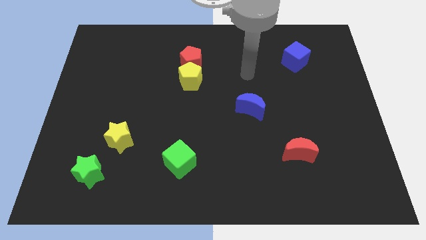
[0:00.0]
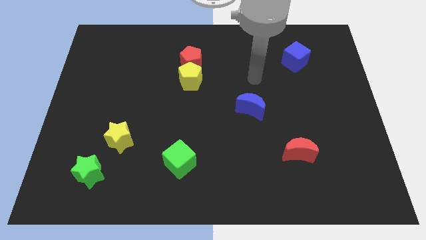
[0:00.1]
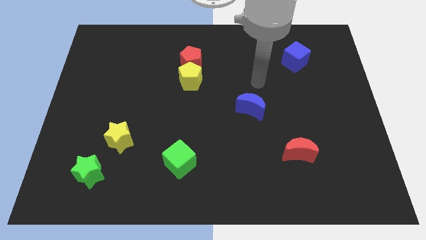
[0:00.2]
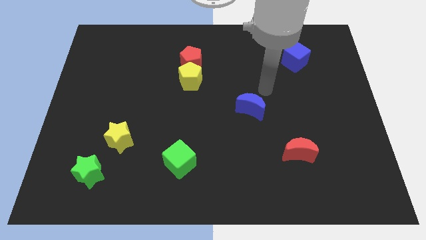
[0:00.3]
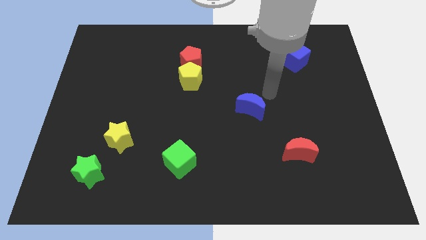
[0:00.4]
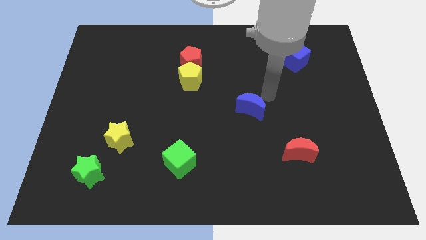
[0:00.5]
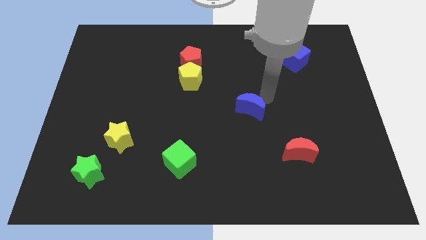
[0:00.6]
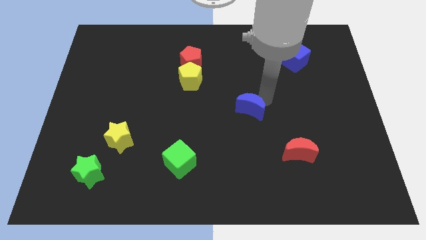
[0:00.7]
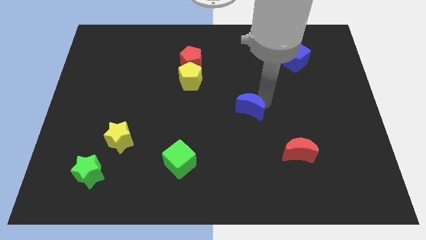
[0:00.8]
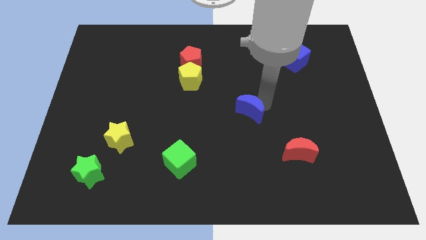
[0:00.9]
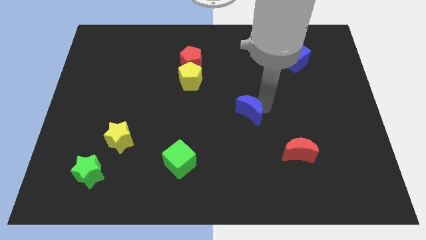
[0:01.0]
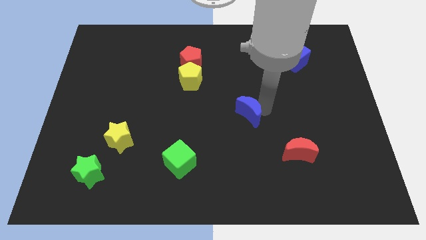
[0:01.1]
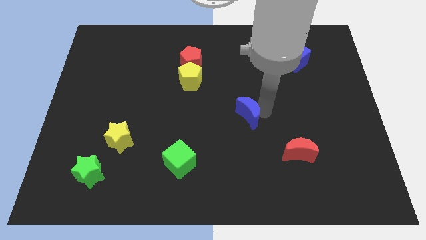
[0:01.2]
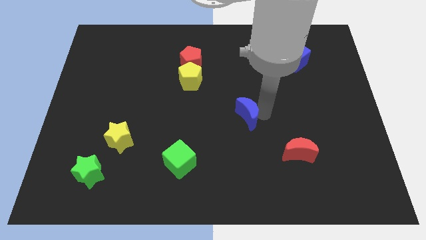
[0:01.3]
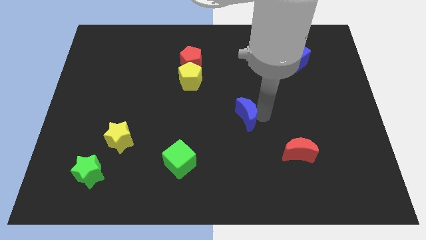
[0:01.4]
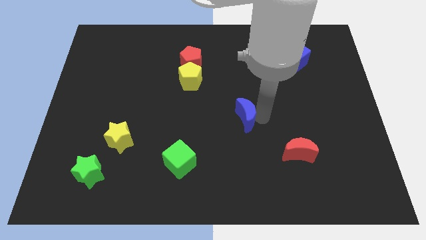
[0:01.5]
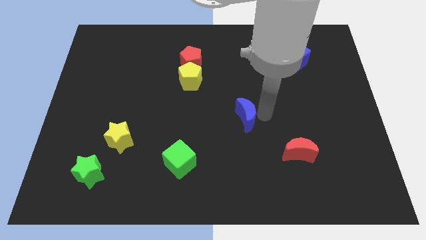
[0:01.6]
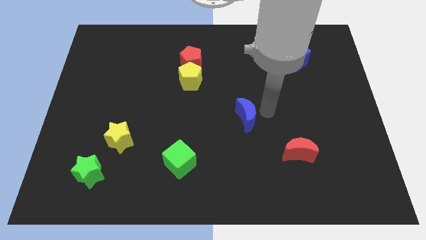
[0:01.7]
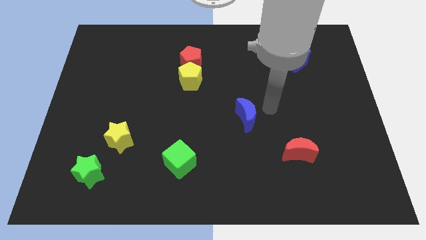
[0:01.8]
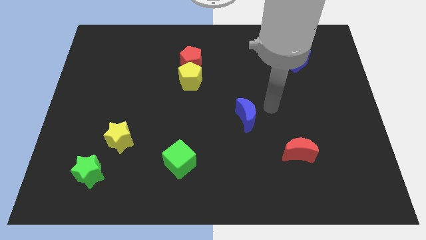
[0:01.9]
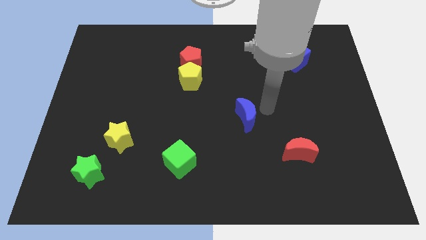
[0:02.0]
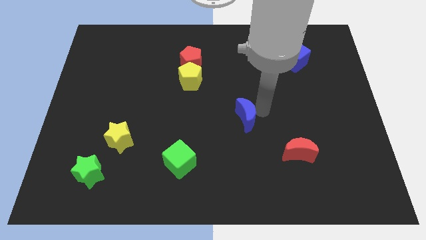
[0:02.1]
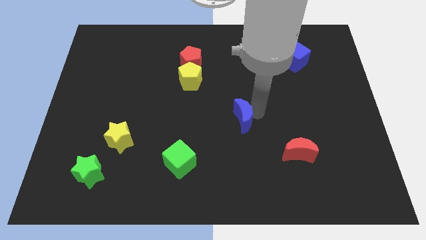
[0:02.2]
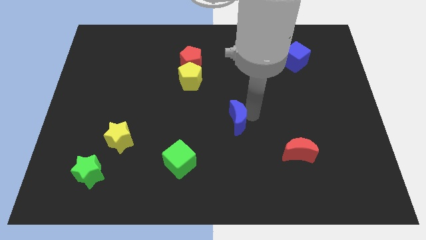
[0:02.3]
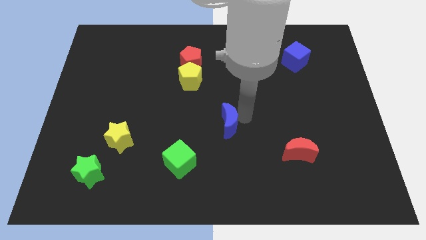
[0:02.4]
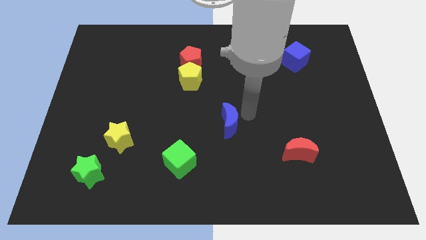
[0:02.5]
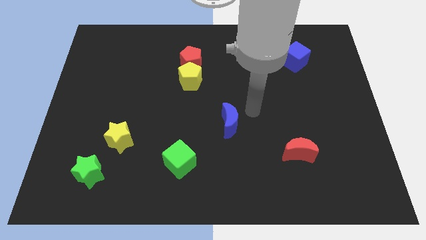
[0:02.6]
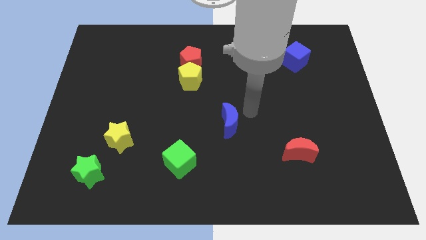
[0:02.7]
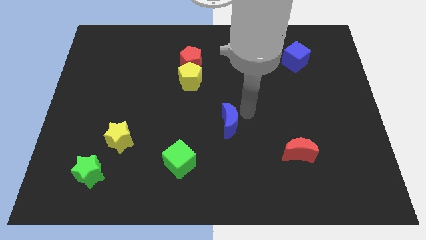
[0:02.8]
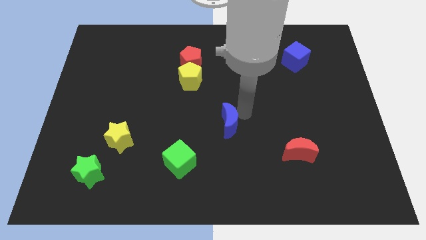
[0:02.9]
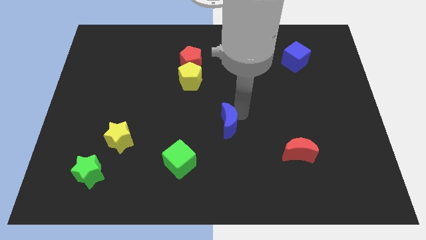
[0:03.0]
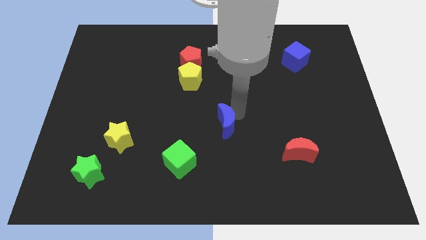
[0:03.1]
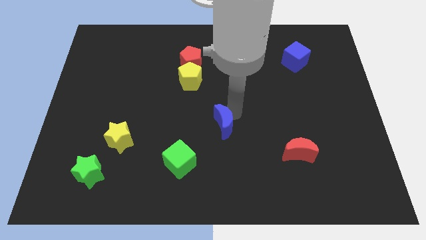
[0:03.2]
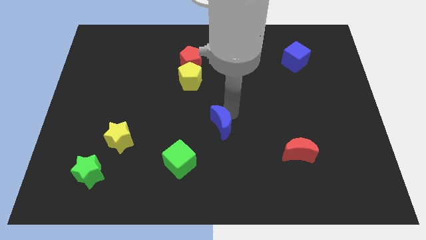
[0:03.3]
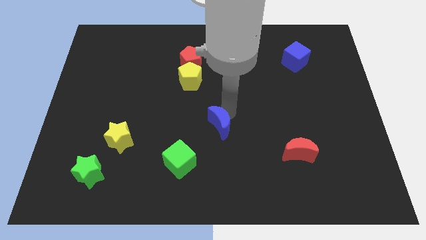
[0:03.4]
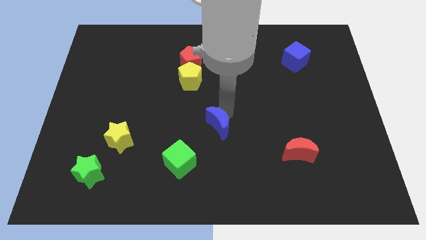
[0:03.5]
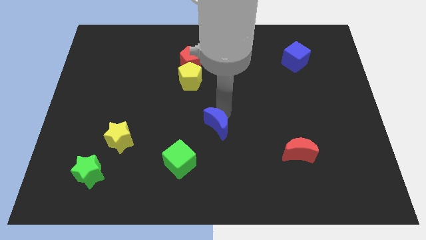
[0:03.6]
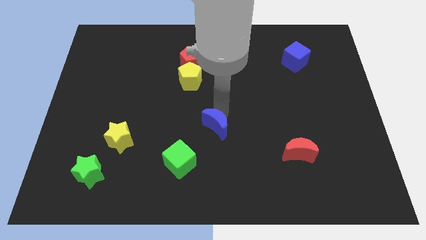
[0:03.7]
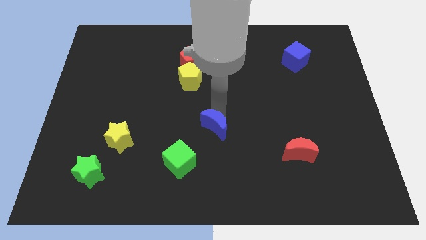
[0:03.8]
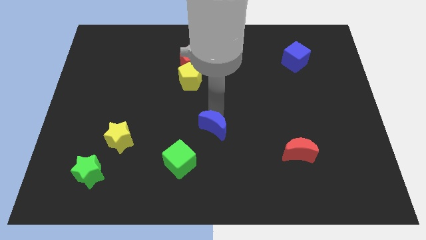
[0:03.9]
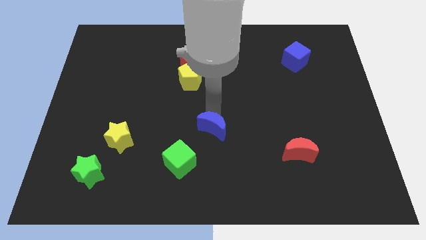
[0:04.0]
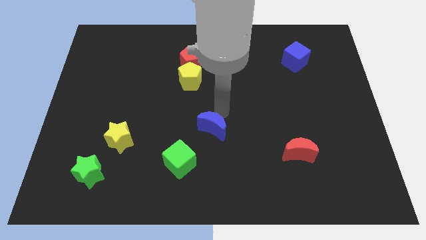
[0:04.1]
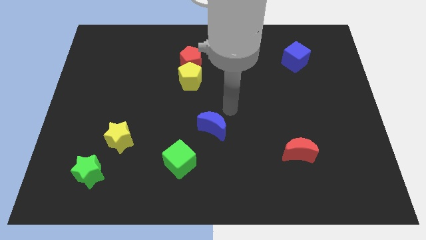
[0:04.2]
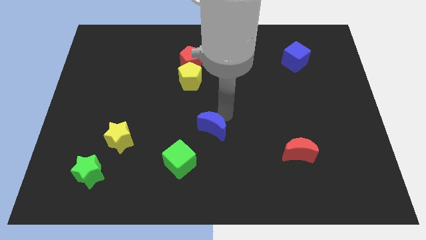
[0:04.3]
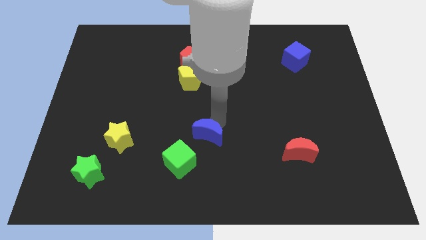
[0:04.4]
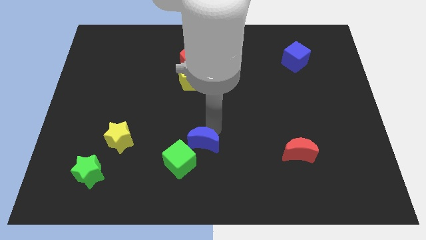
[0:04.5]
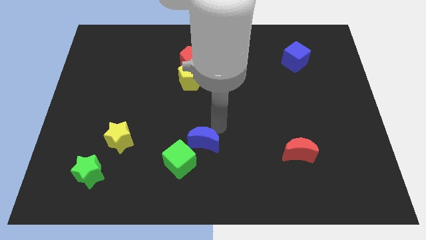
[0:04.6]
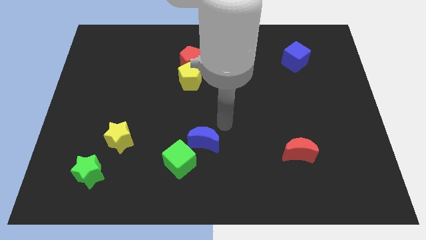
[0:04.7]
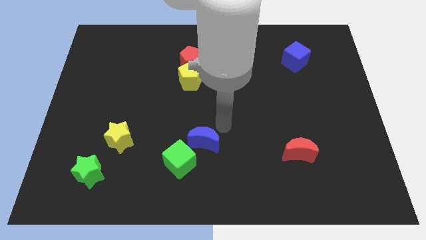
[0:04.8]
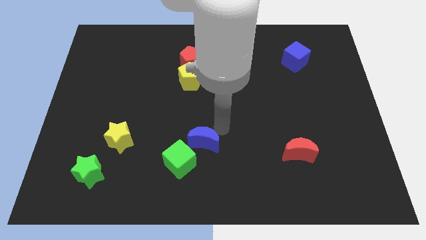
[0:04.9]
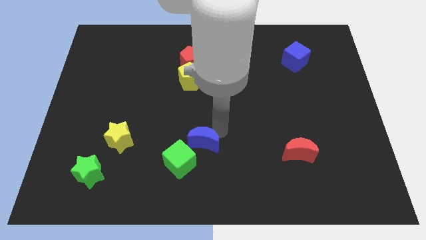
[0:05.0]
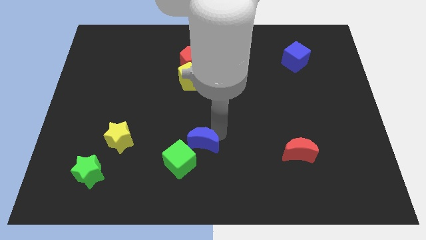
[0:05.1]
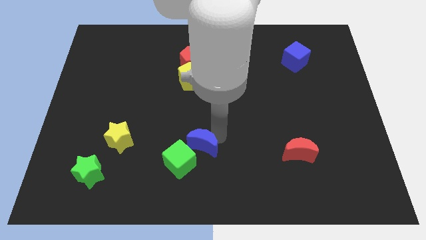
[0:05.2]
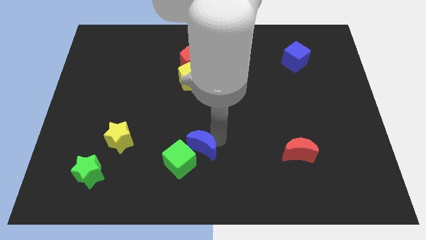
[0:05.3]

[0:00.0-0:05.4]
push the blue moon close to the green cube

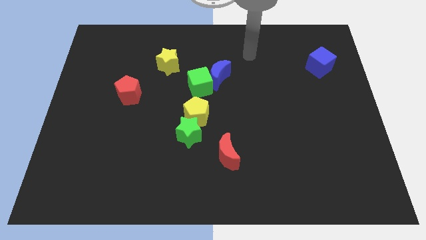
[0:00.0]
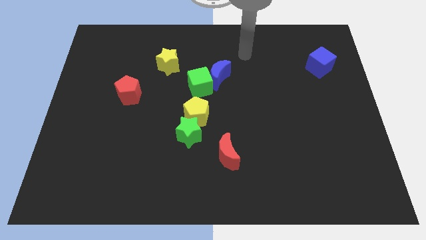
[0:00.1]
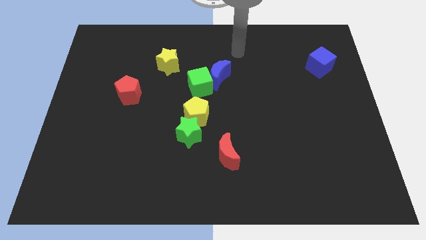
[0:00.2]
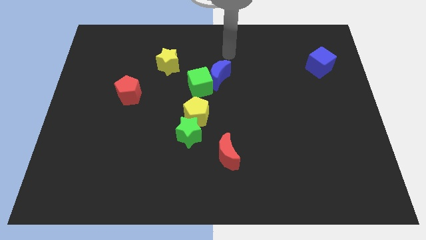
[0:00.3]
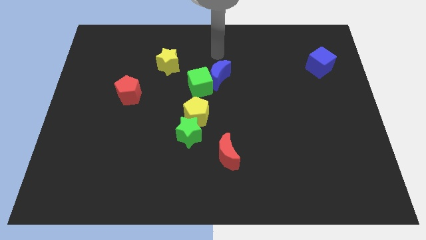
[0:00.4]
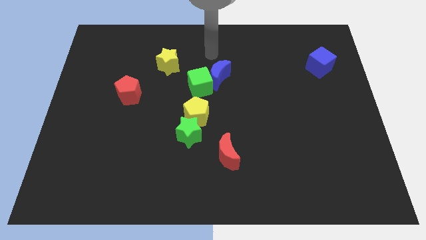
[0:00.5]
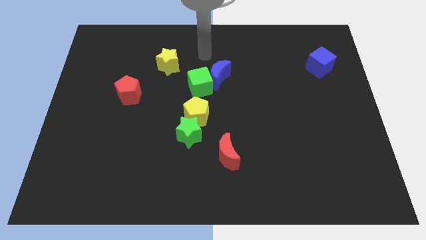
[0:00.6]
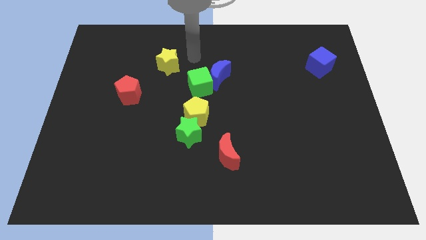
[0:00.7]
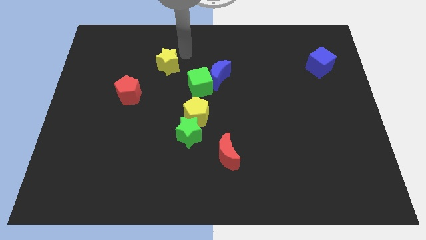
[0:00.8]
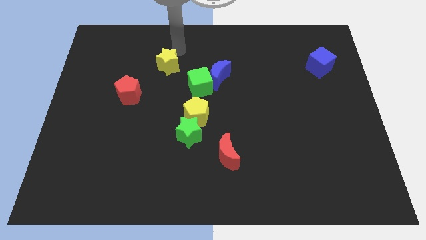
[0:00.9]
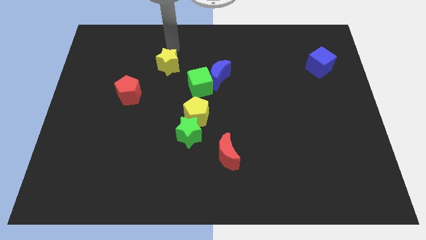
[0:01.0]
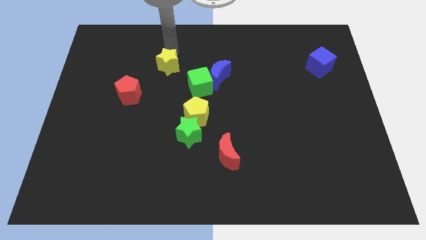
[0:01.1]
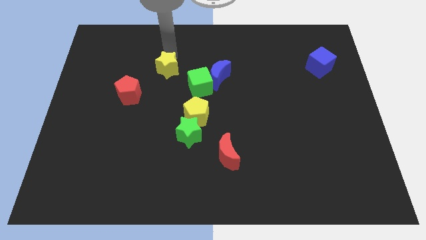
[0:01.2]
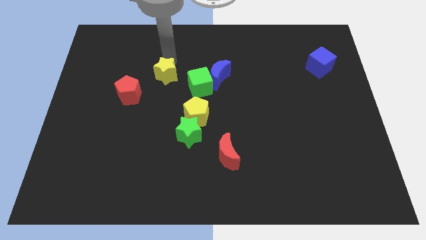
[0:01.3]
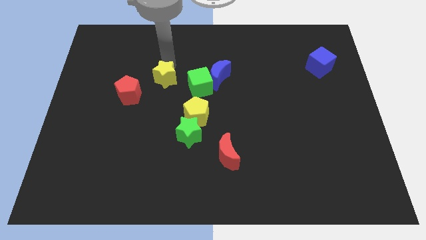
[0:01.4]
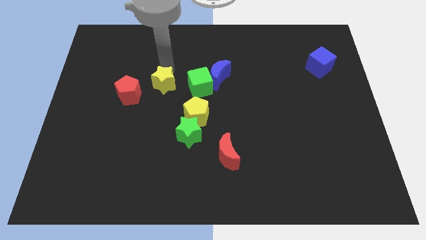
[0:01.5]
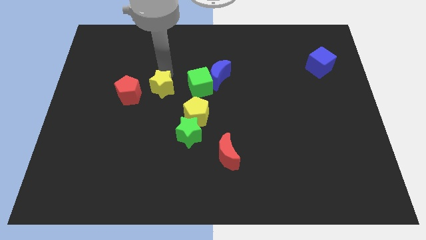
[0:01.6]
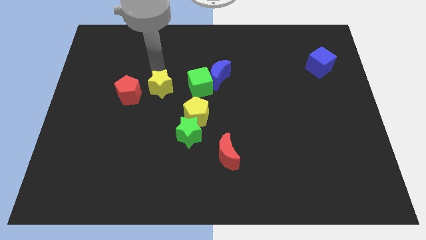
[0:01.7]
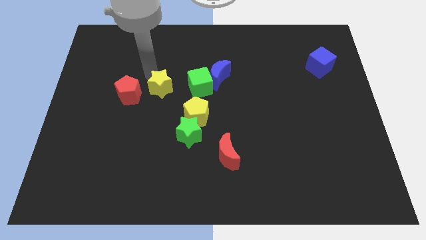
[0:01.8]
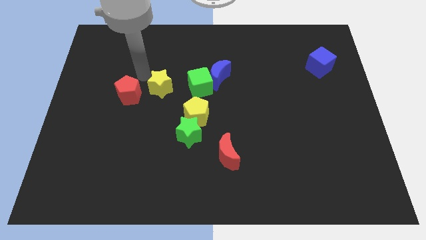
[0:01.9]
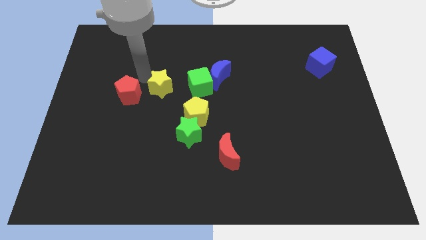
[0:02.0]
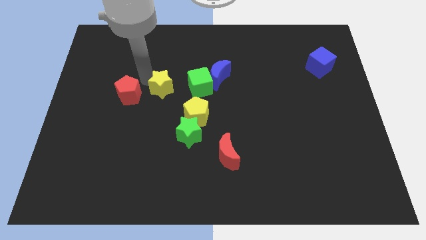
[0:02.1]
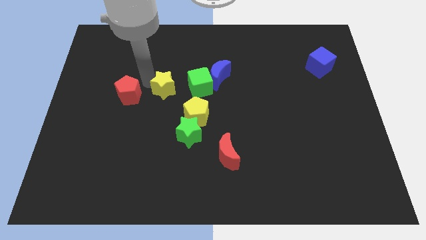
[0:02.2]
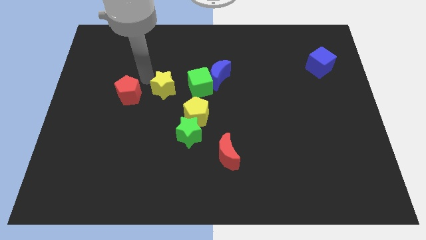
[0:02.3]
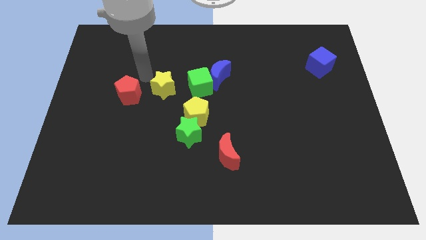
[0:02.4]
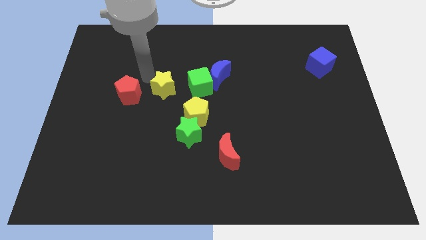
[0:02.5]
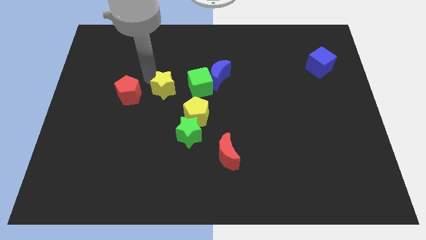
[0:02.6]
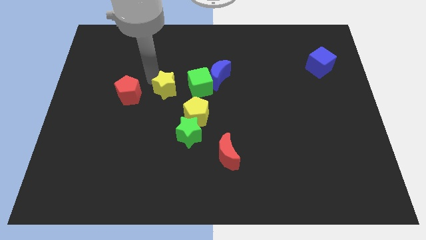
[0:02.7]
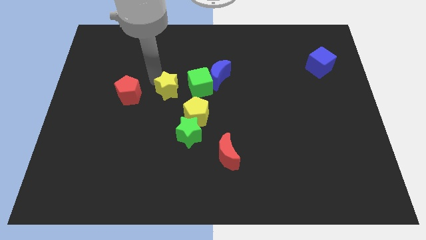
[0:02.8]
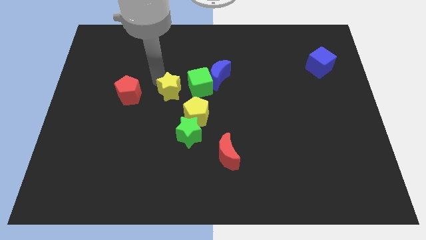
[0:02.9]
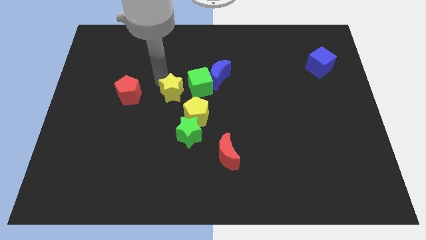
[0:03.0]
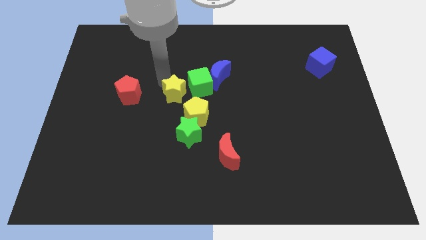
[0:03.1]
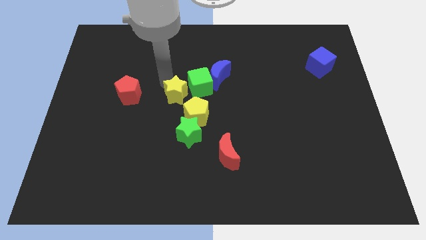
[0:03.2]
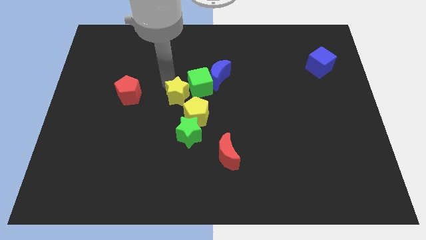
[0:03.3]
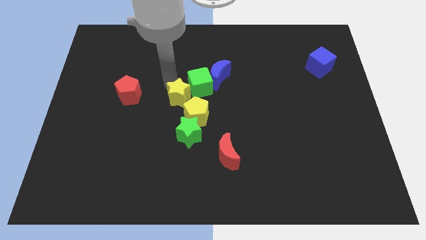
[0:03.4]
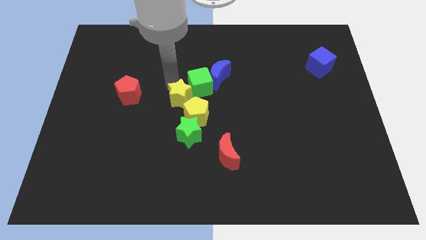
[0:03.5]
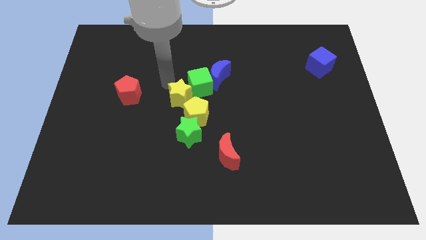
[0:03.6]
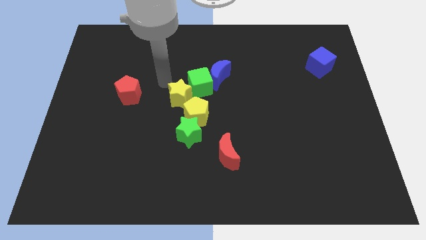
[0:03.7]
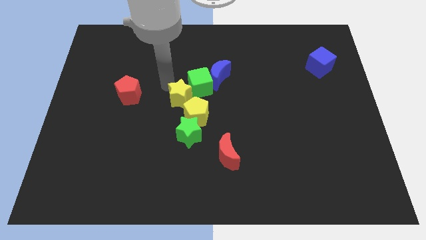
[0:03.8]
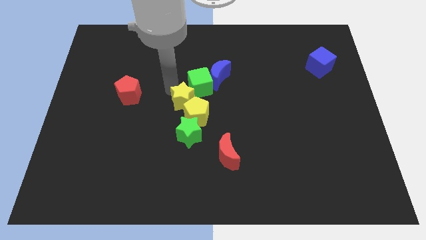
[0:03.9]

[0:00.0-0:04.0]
push the yellow star to the yellow pentagon
